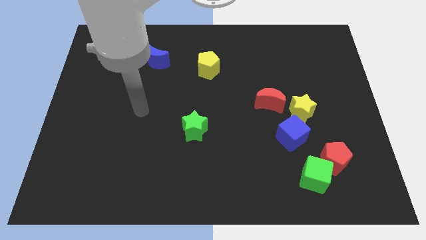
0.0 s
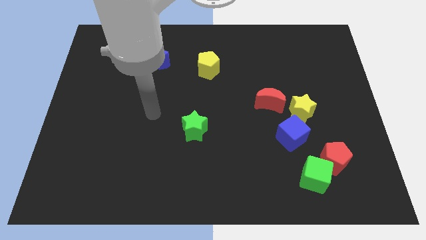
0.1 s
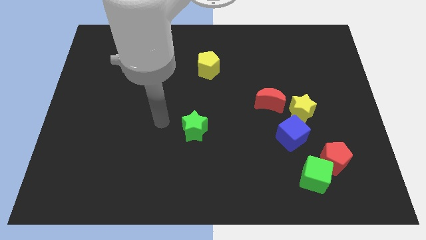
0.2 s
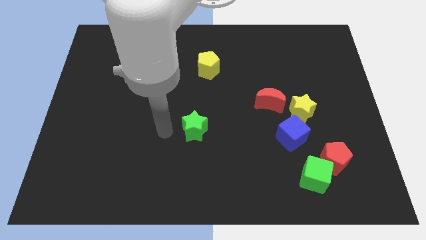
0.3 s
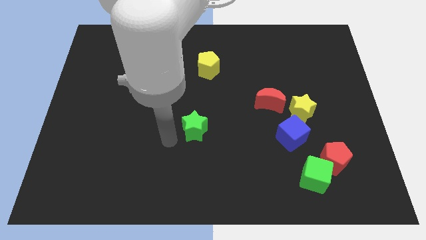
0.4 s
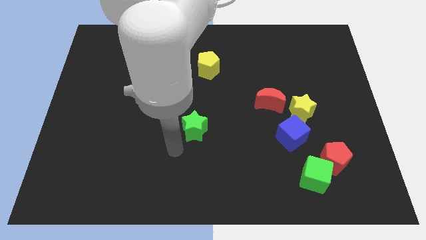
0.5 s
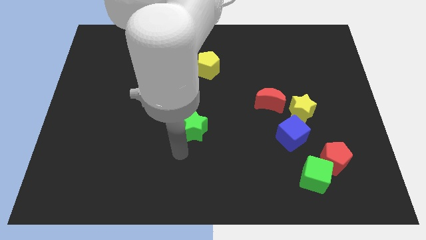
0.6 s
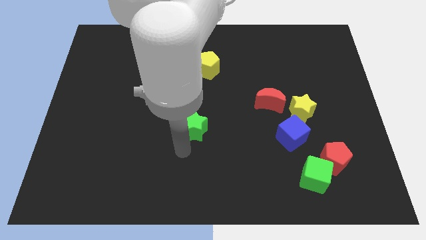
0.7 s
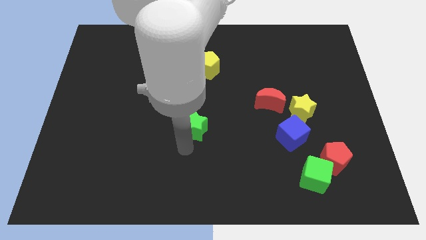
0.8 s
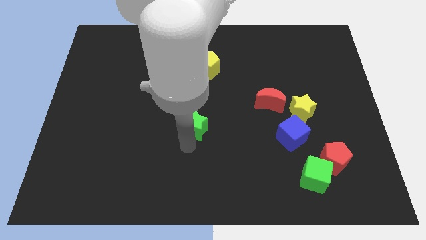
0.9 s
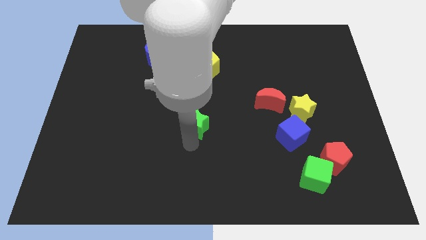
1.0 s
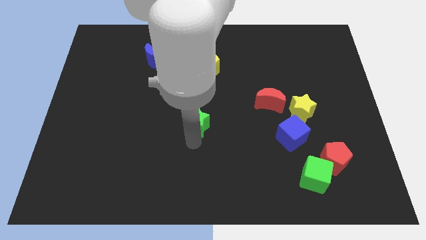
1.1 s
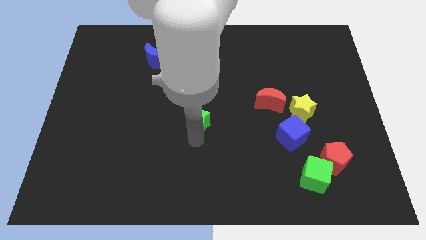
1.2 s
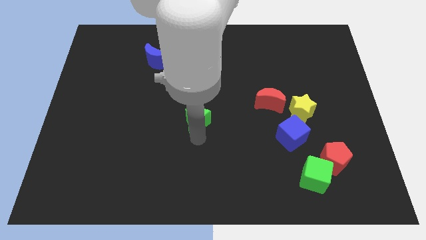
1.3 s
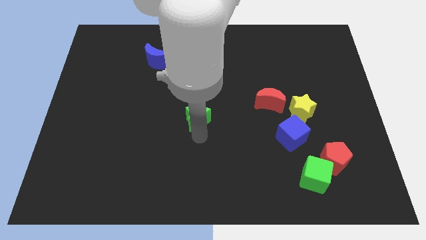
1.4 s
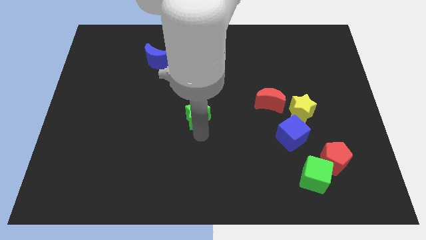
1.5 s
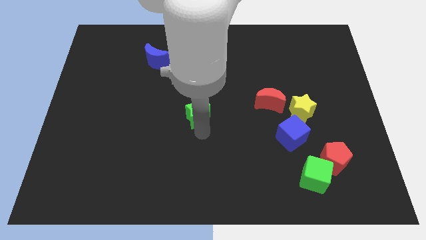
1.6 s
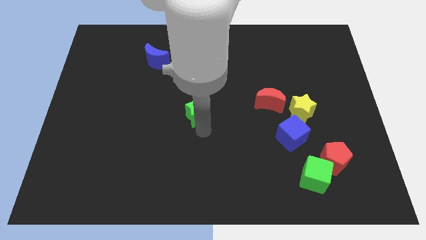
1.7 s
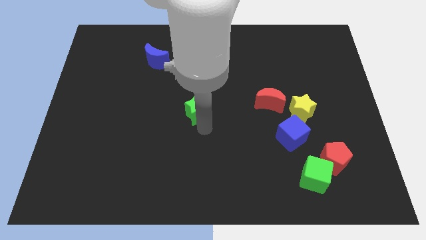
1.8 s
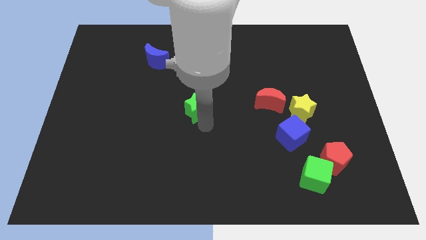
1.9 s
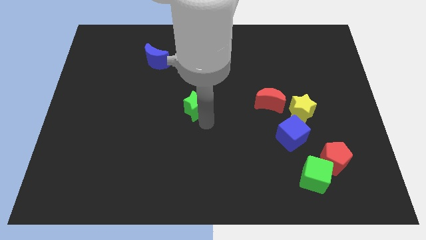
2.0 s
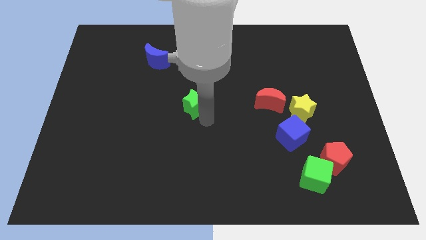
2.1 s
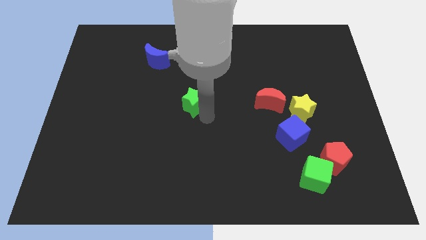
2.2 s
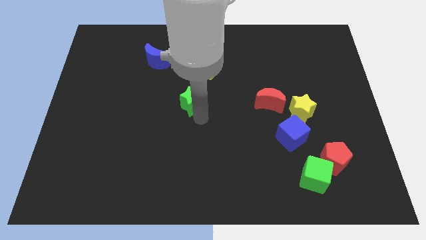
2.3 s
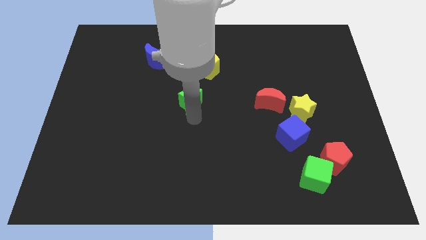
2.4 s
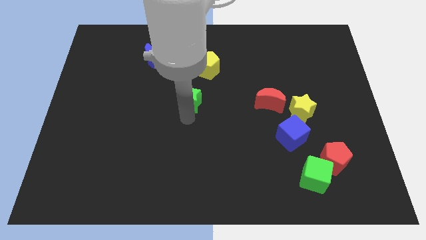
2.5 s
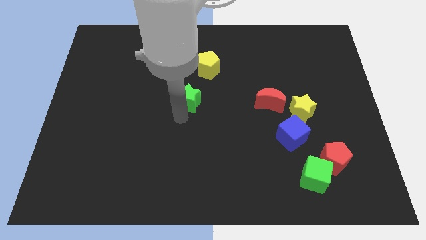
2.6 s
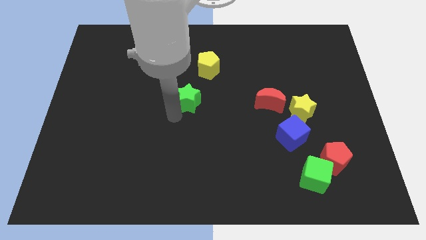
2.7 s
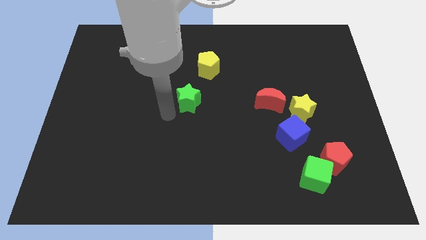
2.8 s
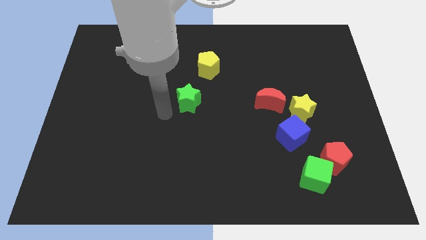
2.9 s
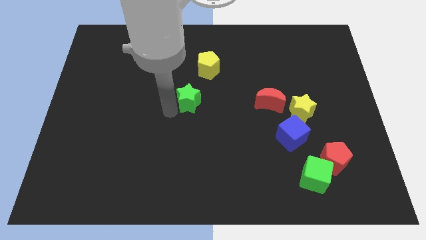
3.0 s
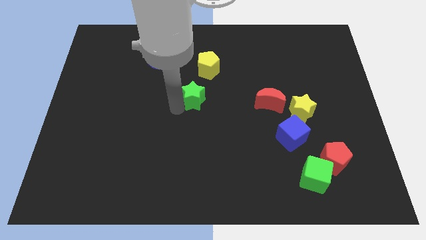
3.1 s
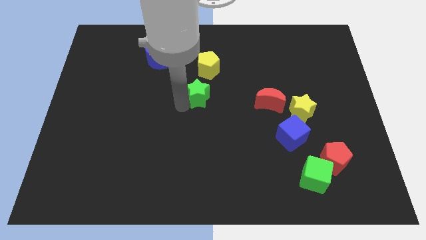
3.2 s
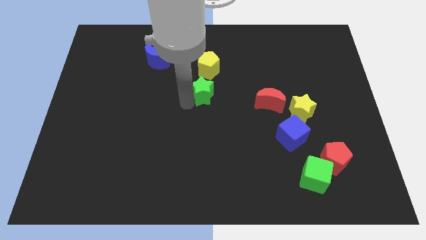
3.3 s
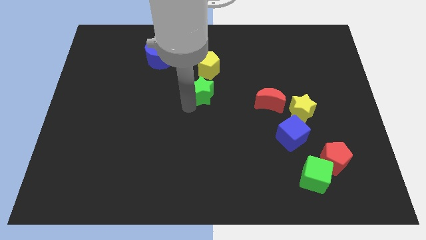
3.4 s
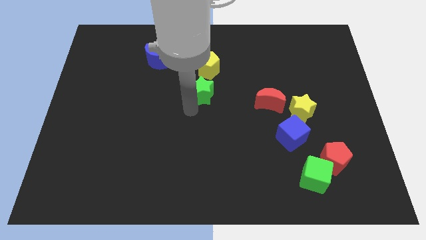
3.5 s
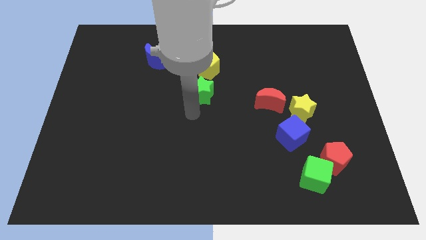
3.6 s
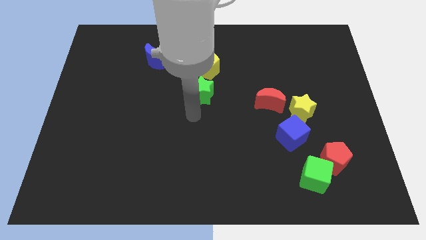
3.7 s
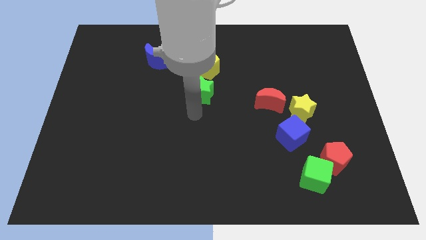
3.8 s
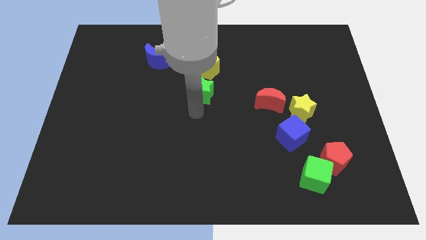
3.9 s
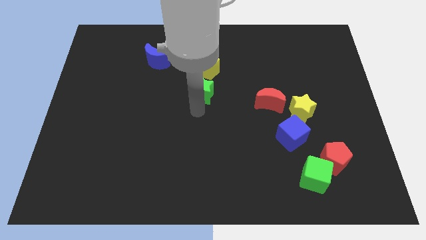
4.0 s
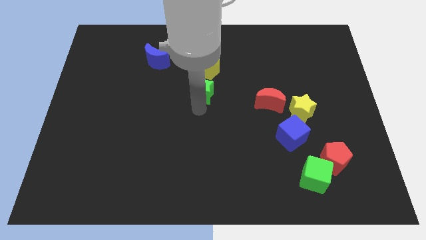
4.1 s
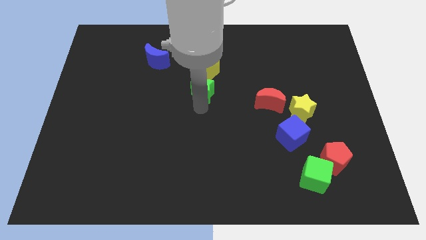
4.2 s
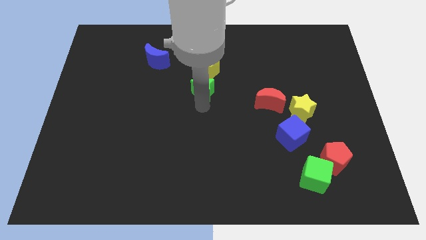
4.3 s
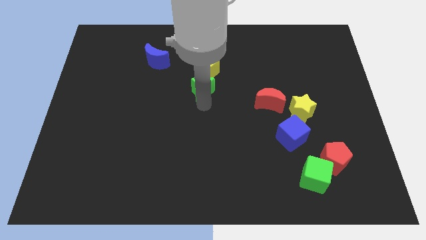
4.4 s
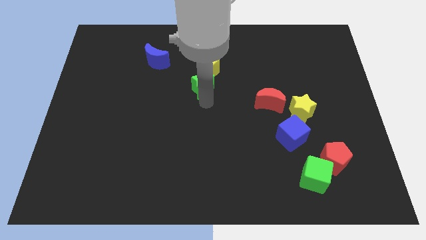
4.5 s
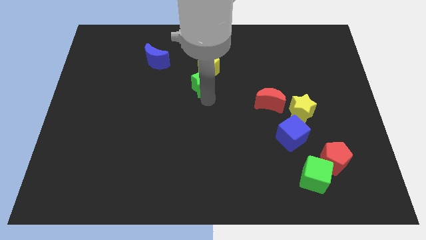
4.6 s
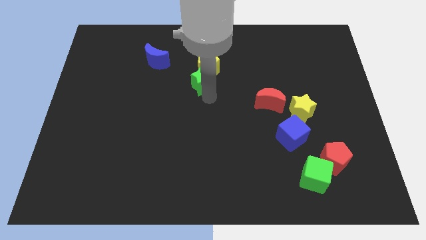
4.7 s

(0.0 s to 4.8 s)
move the green star to the yellow pentagon

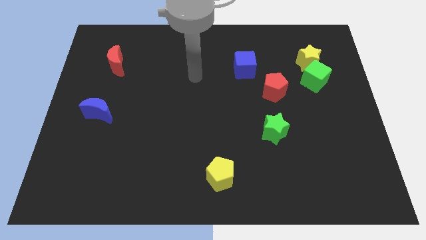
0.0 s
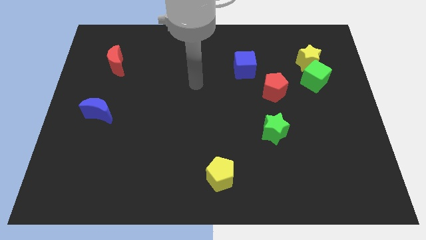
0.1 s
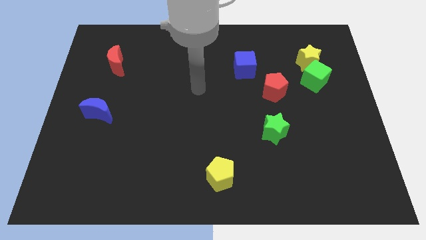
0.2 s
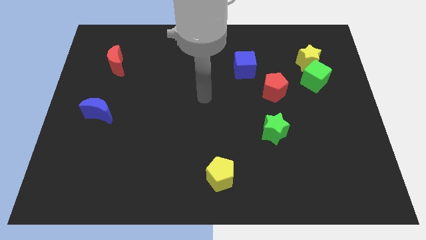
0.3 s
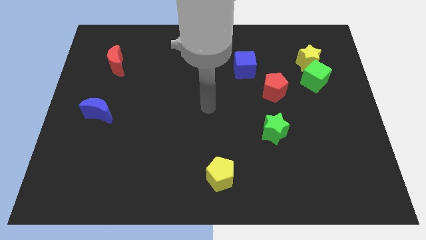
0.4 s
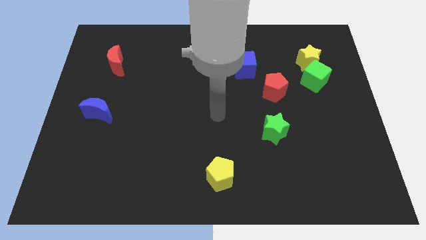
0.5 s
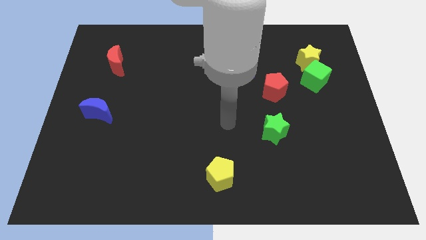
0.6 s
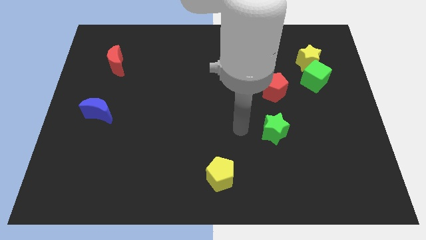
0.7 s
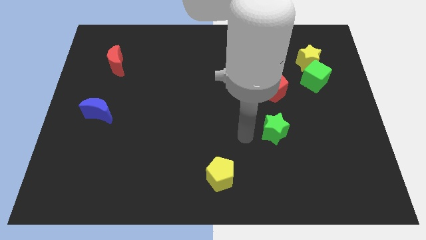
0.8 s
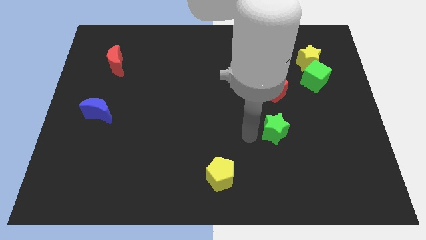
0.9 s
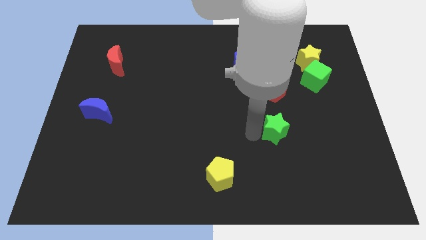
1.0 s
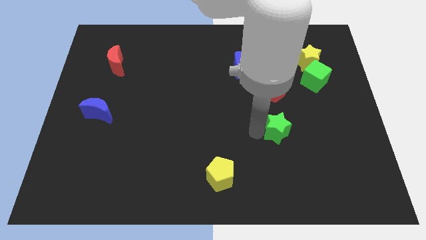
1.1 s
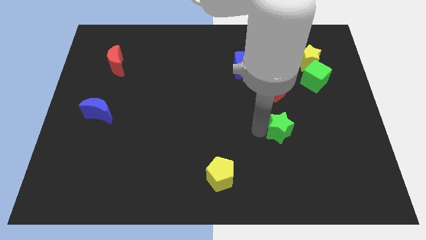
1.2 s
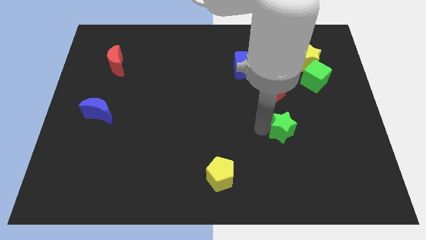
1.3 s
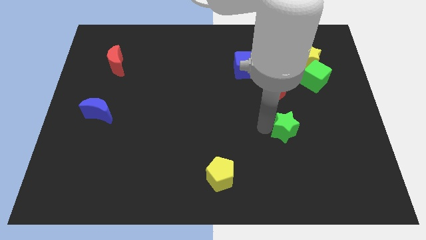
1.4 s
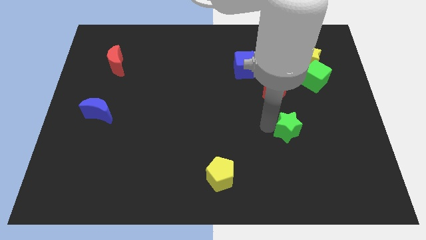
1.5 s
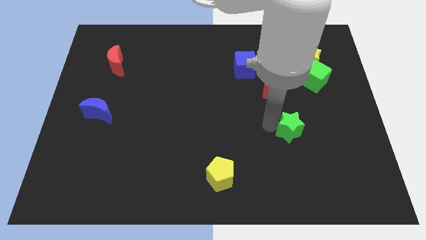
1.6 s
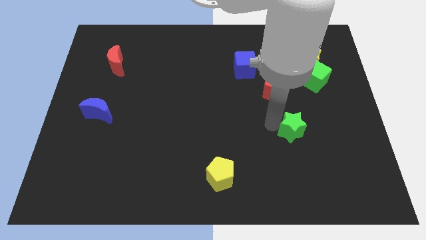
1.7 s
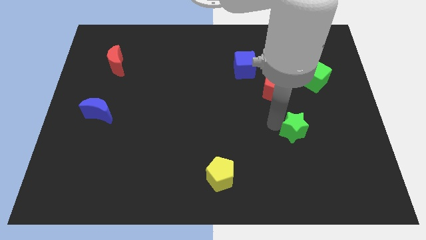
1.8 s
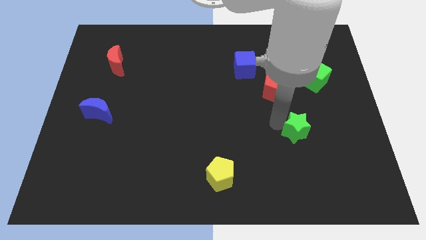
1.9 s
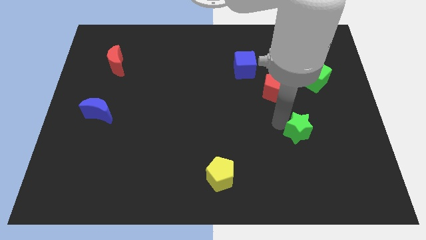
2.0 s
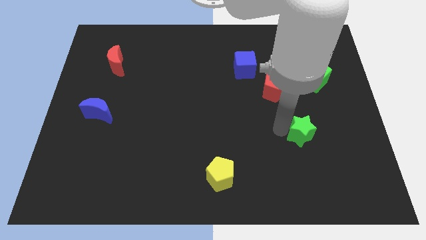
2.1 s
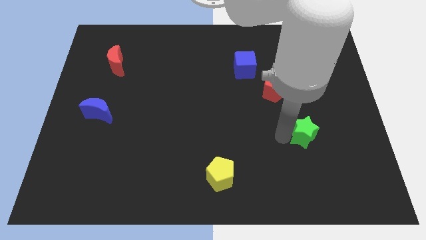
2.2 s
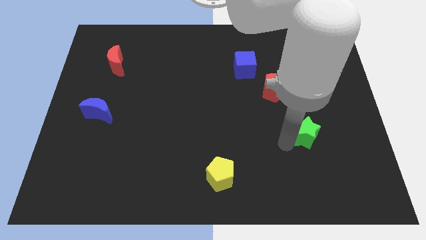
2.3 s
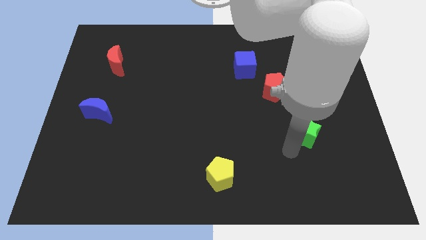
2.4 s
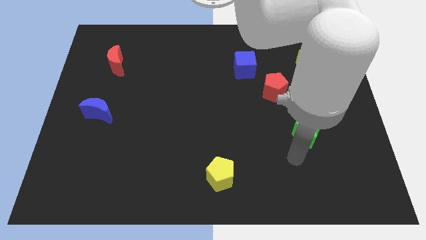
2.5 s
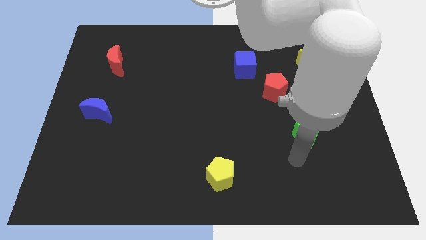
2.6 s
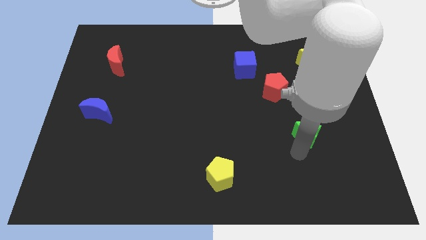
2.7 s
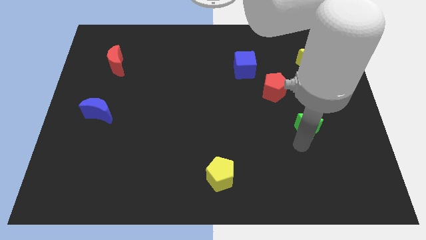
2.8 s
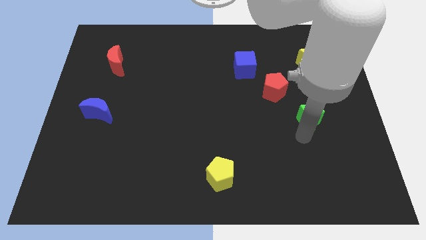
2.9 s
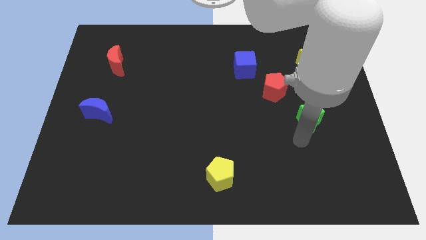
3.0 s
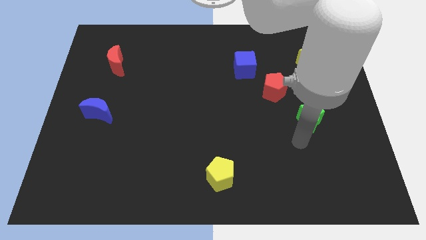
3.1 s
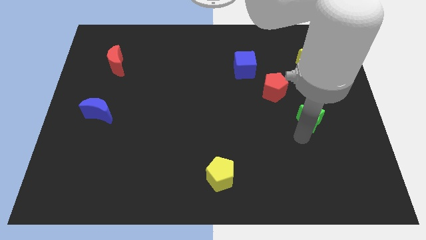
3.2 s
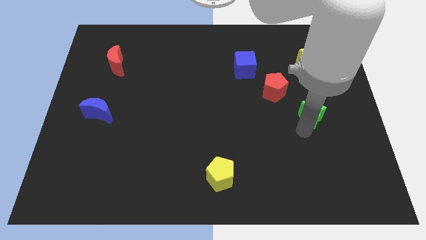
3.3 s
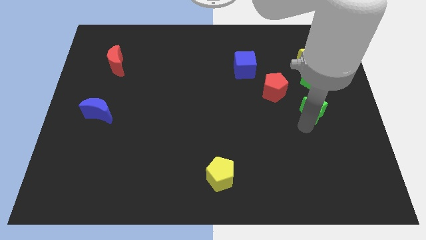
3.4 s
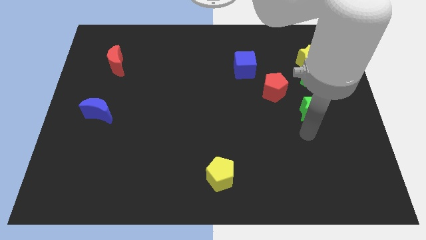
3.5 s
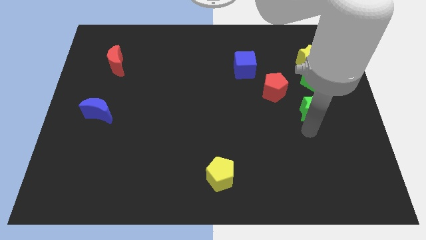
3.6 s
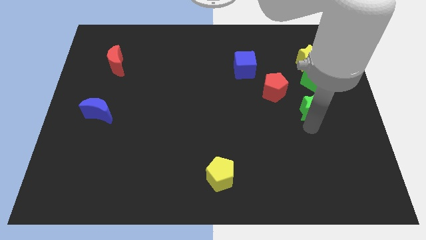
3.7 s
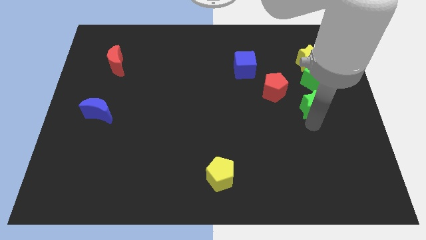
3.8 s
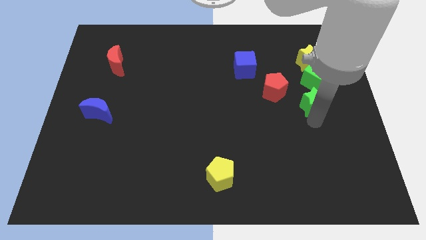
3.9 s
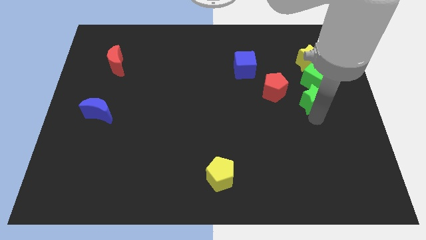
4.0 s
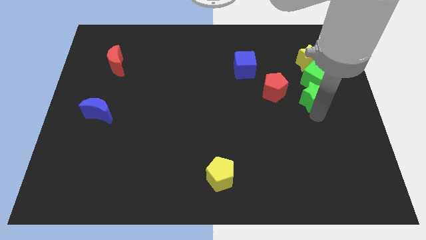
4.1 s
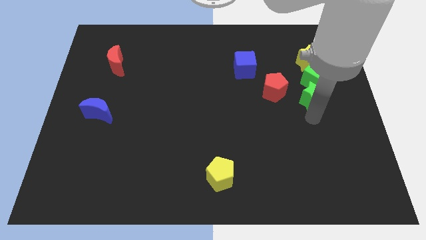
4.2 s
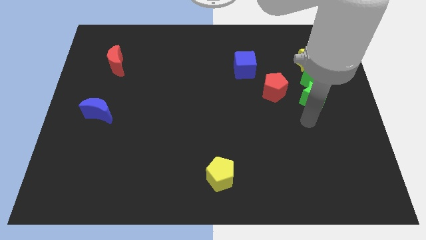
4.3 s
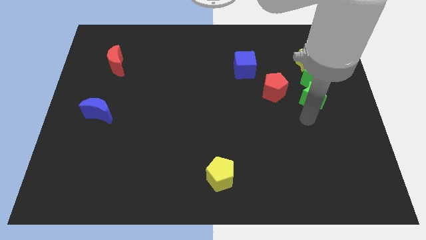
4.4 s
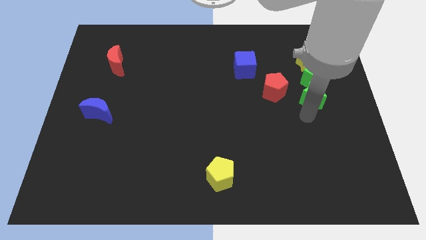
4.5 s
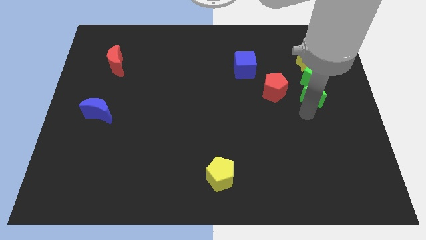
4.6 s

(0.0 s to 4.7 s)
push the green star close to the green cube
